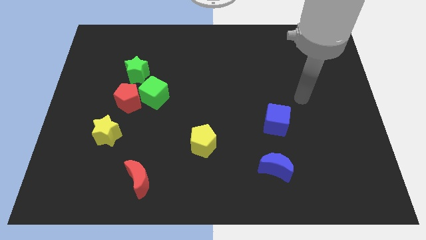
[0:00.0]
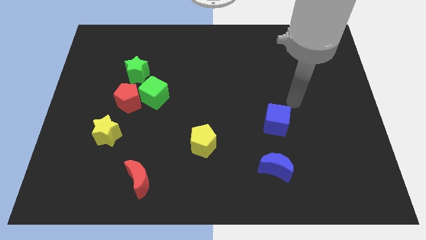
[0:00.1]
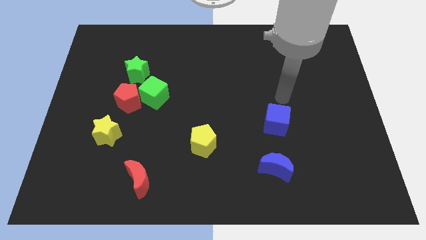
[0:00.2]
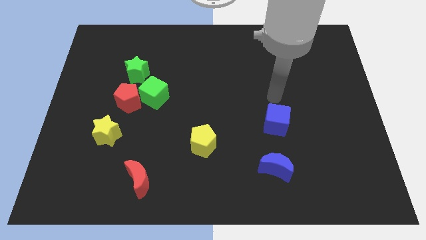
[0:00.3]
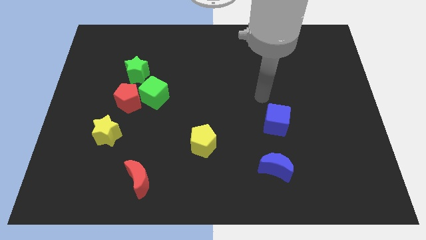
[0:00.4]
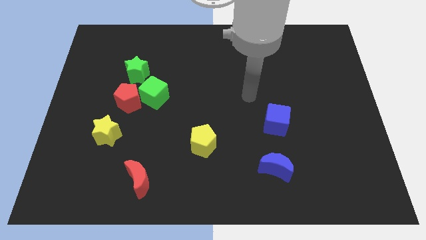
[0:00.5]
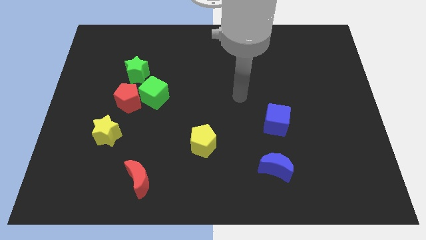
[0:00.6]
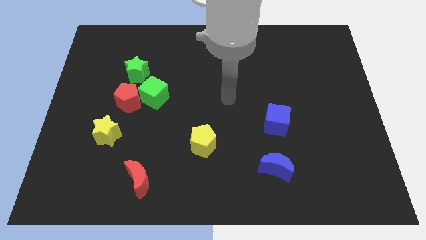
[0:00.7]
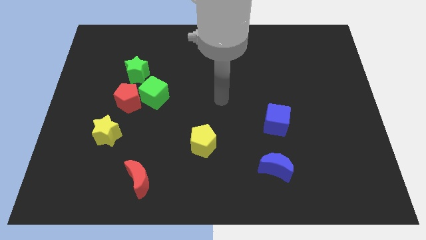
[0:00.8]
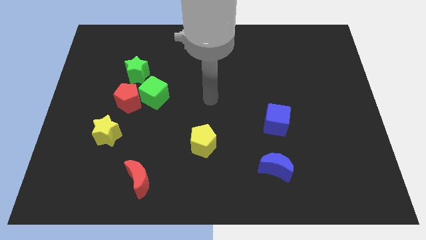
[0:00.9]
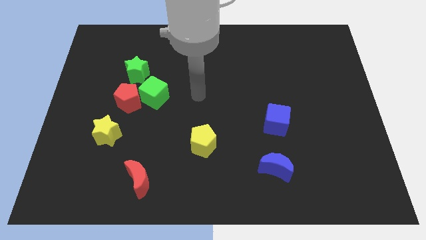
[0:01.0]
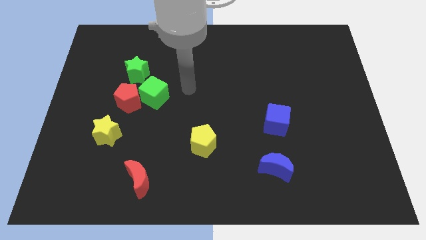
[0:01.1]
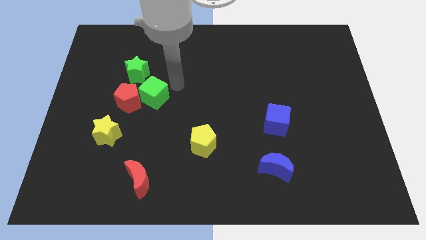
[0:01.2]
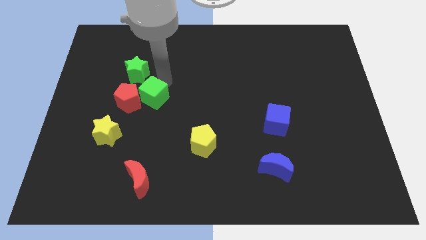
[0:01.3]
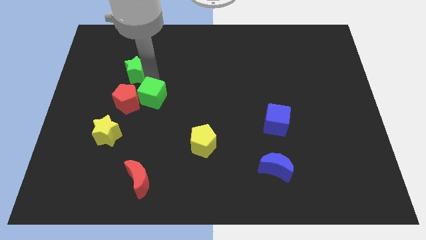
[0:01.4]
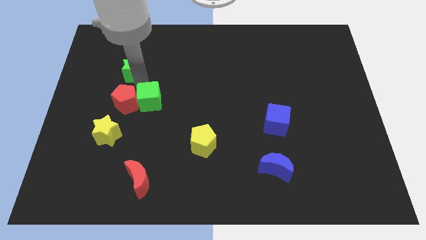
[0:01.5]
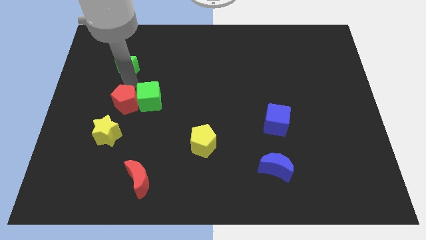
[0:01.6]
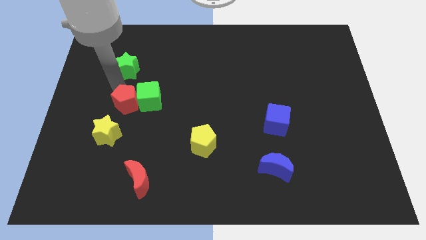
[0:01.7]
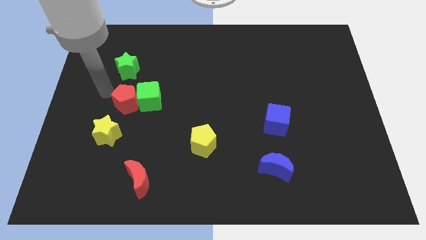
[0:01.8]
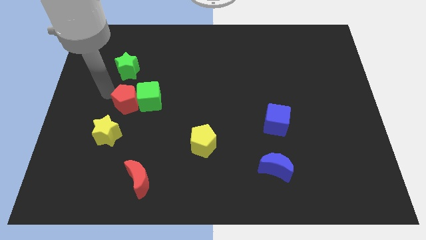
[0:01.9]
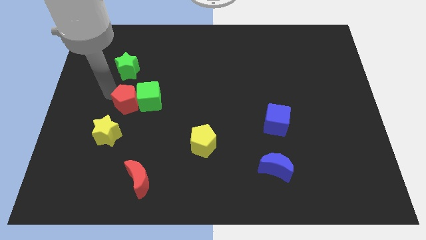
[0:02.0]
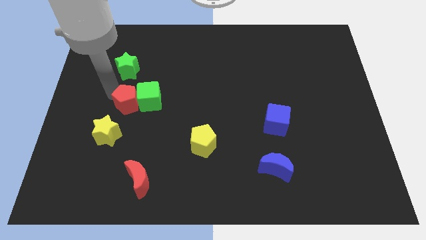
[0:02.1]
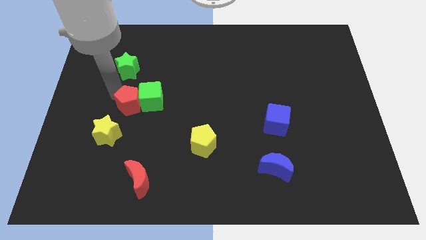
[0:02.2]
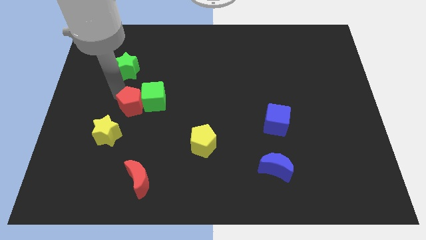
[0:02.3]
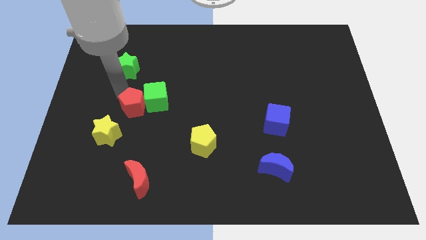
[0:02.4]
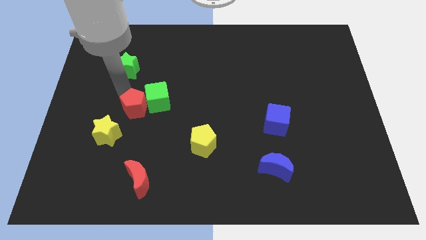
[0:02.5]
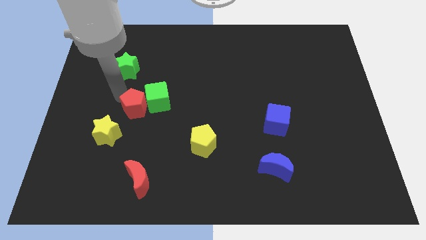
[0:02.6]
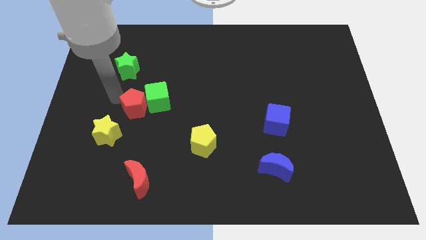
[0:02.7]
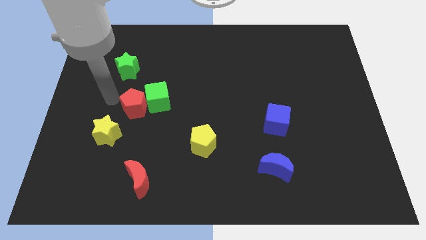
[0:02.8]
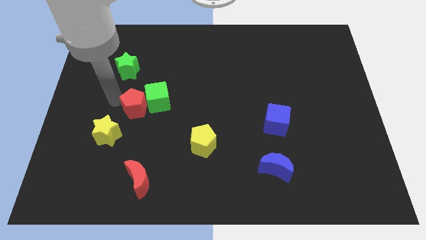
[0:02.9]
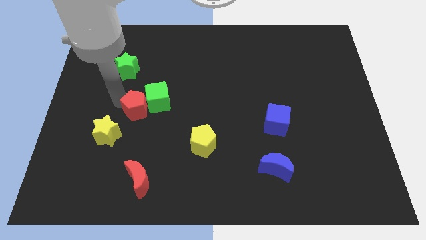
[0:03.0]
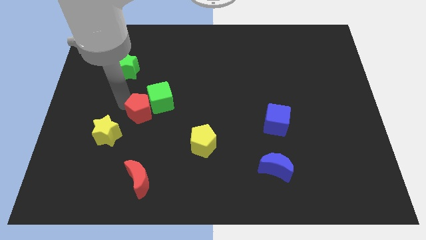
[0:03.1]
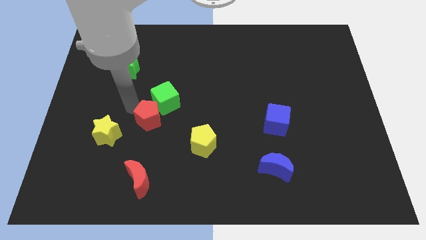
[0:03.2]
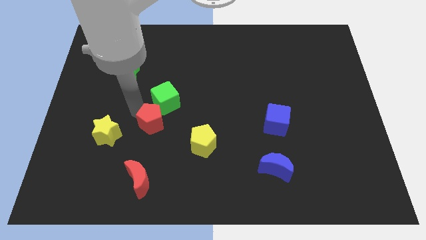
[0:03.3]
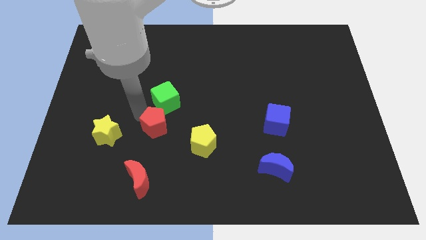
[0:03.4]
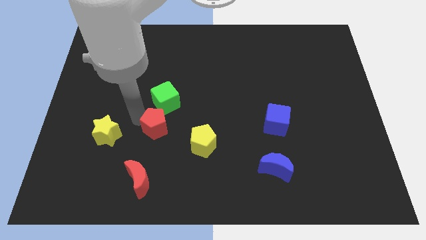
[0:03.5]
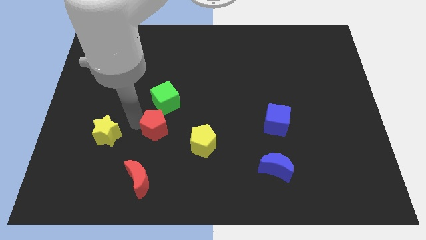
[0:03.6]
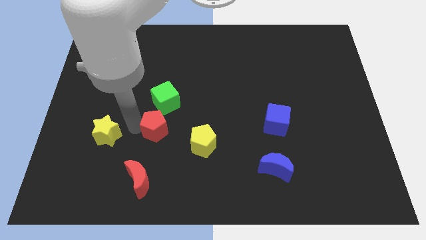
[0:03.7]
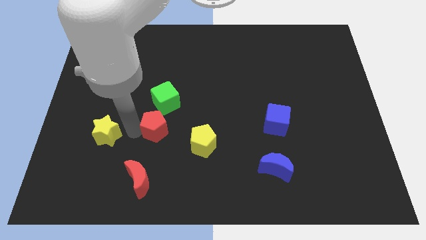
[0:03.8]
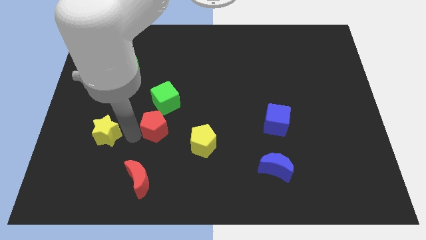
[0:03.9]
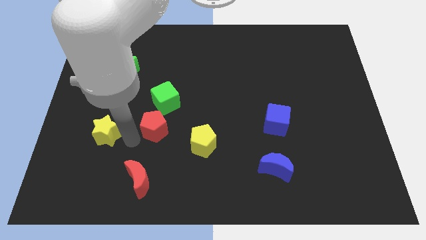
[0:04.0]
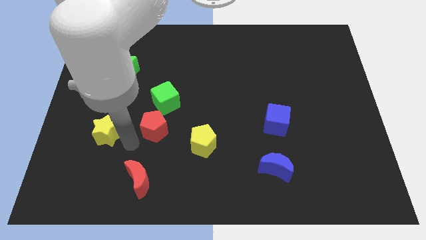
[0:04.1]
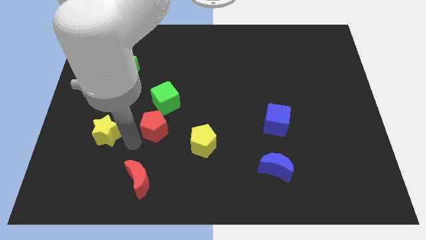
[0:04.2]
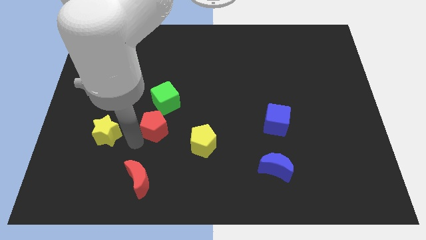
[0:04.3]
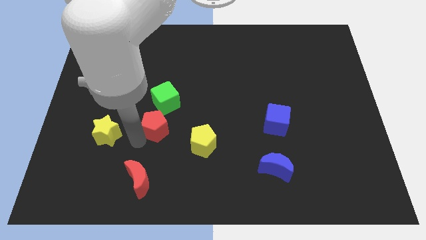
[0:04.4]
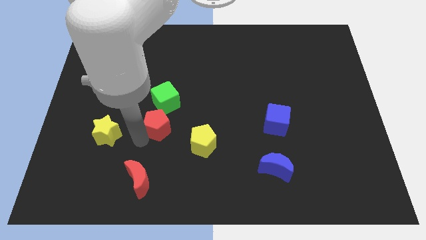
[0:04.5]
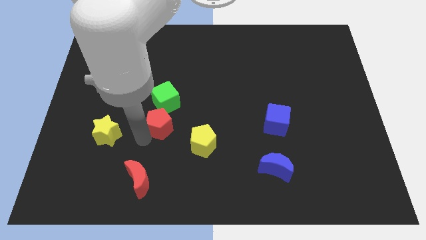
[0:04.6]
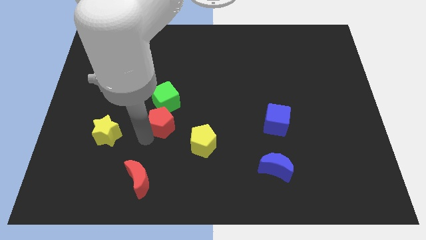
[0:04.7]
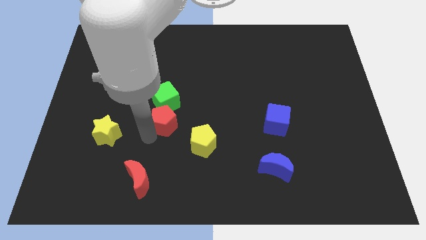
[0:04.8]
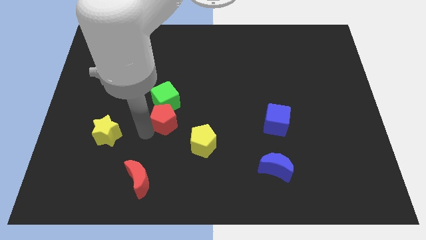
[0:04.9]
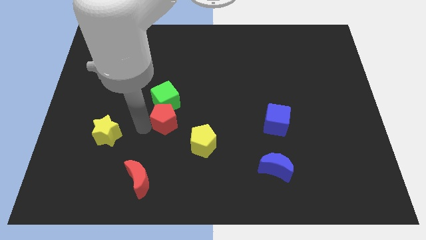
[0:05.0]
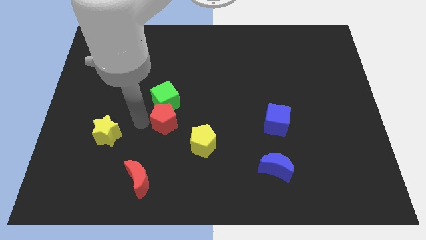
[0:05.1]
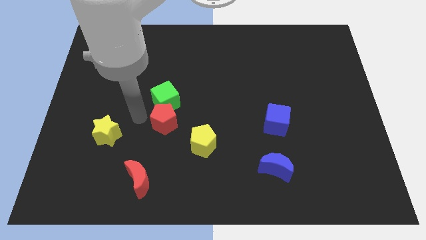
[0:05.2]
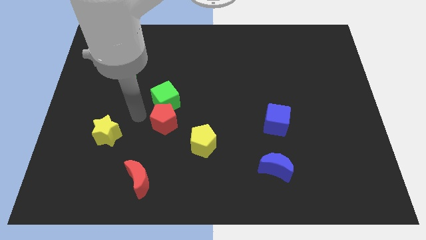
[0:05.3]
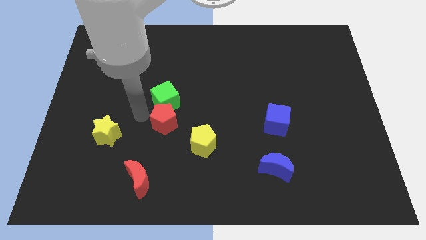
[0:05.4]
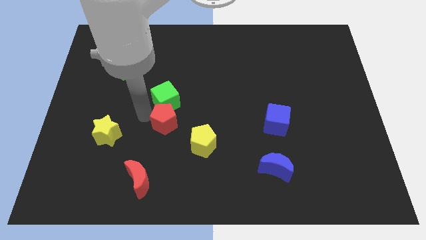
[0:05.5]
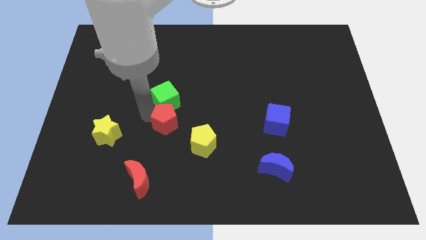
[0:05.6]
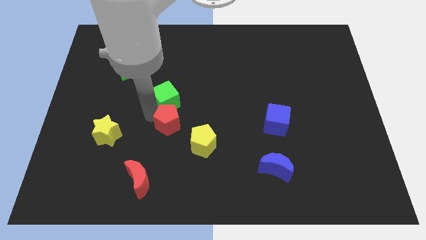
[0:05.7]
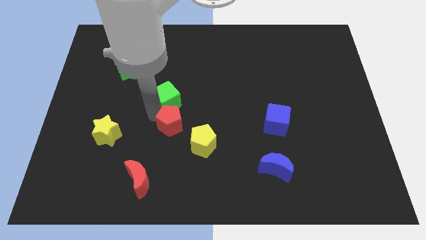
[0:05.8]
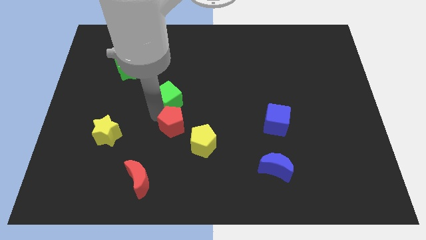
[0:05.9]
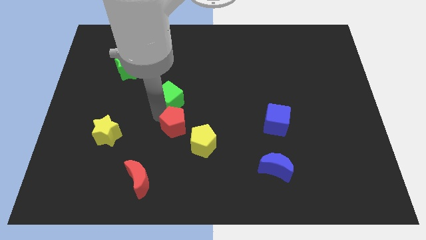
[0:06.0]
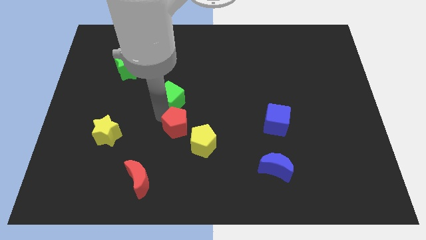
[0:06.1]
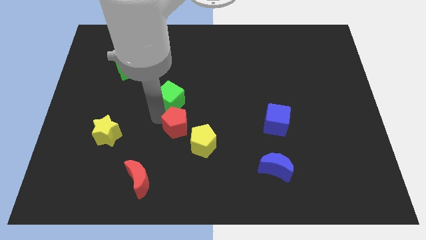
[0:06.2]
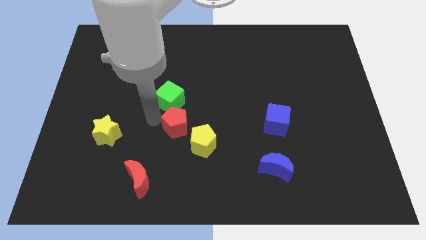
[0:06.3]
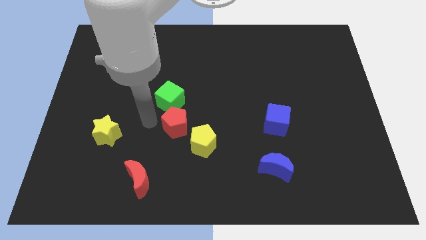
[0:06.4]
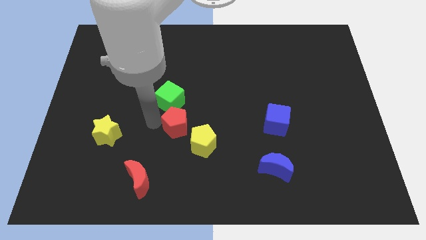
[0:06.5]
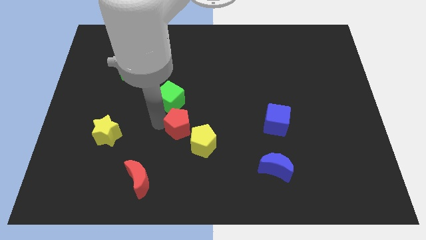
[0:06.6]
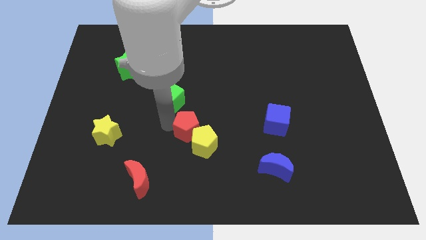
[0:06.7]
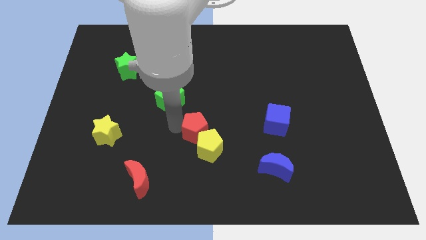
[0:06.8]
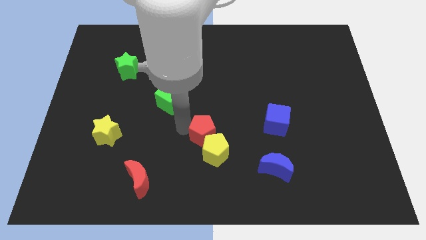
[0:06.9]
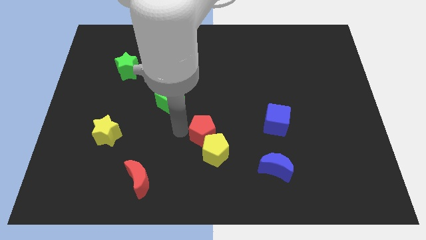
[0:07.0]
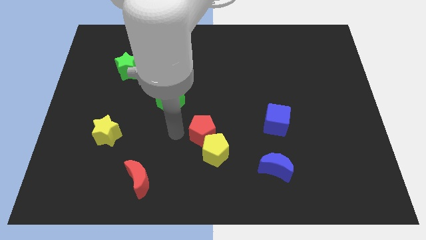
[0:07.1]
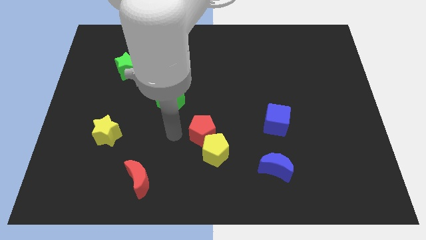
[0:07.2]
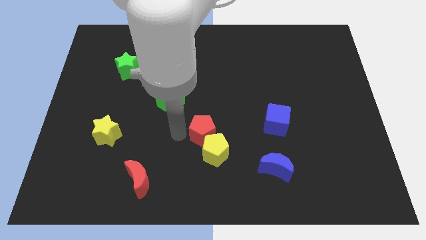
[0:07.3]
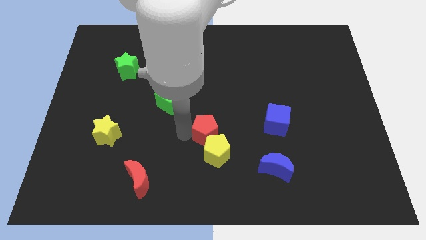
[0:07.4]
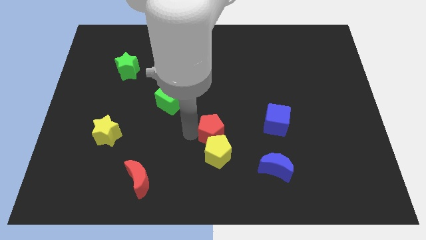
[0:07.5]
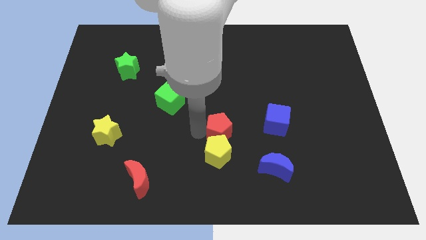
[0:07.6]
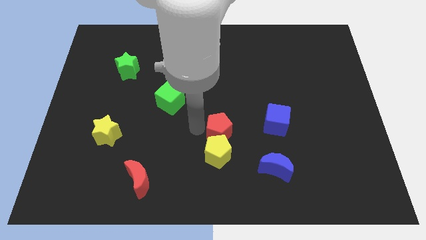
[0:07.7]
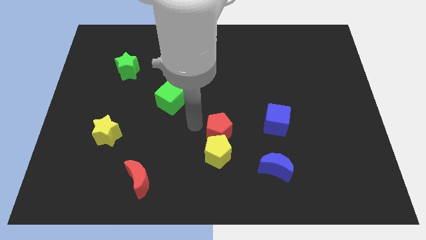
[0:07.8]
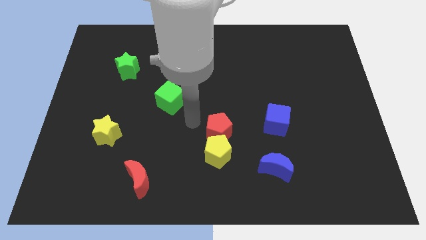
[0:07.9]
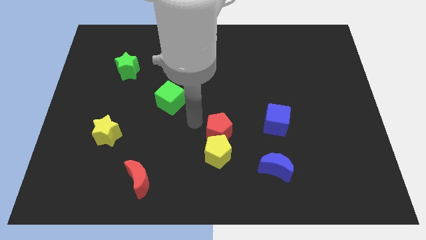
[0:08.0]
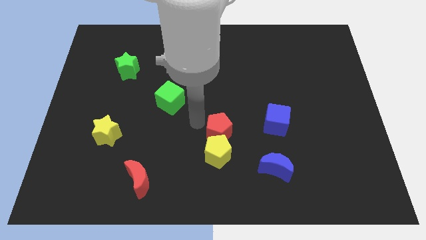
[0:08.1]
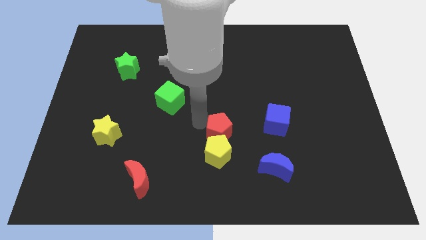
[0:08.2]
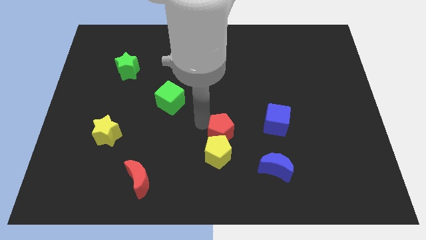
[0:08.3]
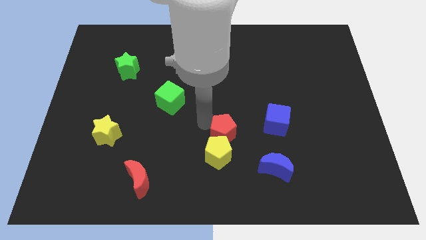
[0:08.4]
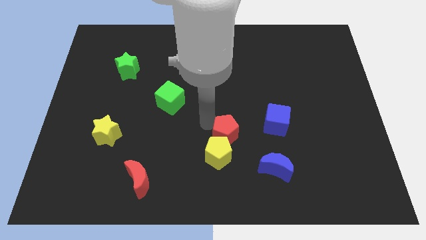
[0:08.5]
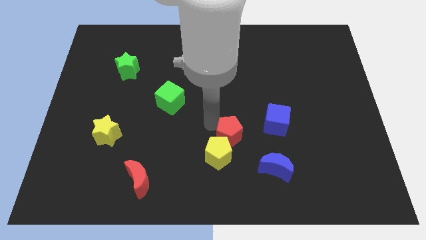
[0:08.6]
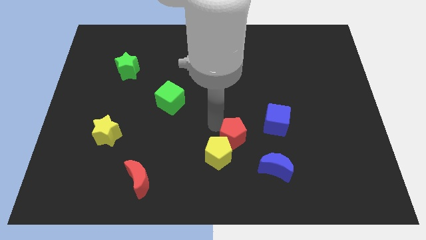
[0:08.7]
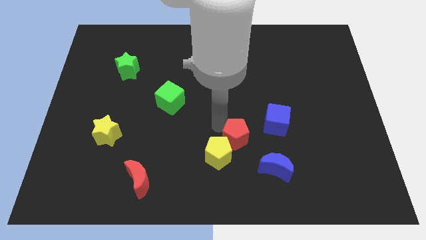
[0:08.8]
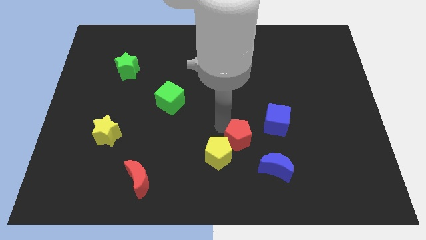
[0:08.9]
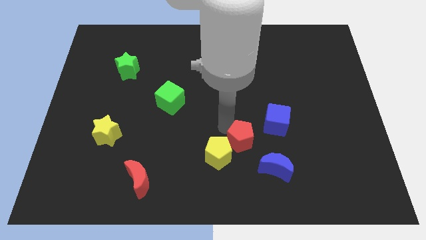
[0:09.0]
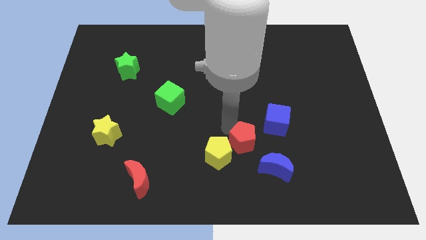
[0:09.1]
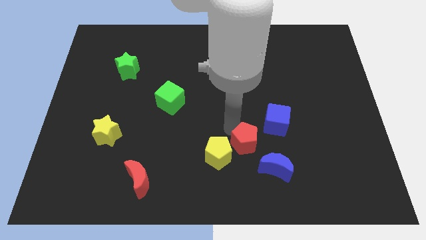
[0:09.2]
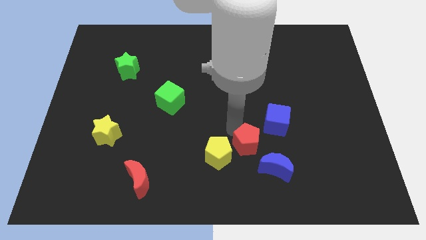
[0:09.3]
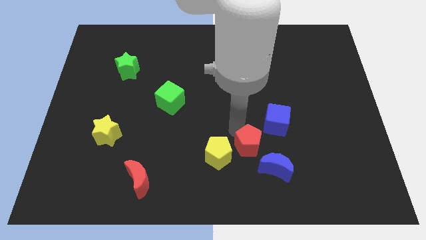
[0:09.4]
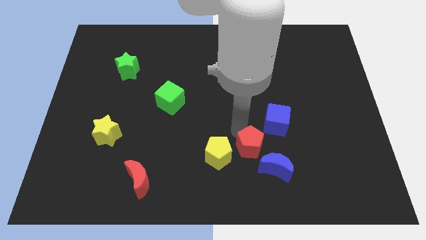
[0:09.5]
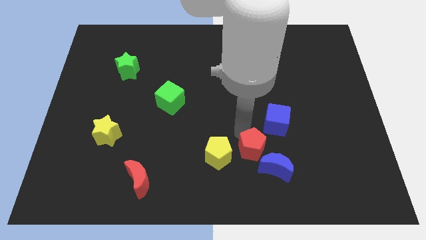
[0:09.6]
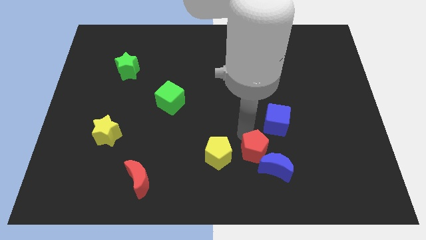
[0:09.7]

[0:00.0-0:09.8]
slide the red pentagon to the blue moon
